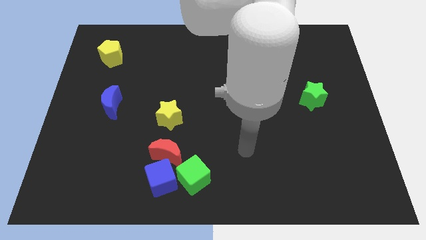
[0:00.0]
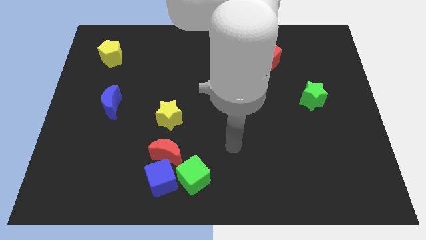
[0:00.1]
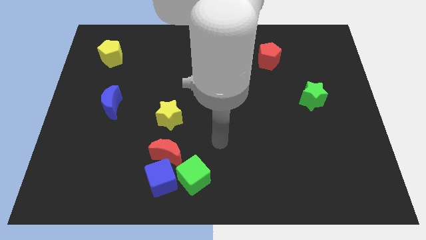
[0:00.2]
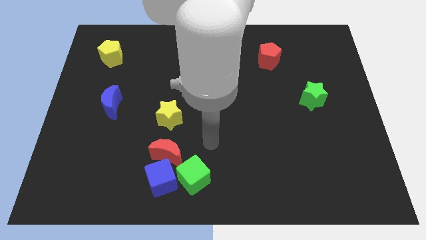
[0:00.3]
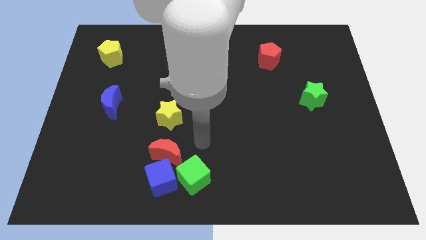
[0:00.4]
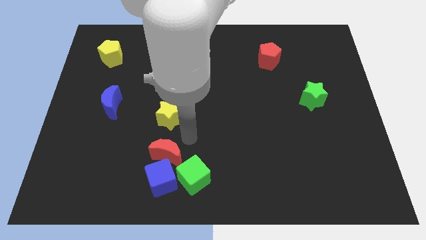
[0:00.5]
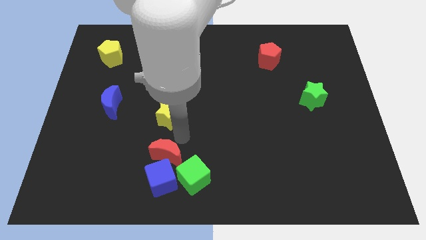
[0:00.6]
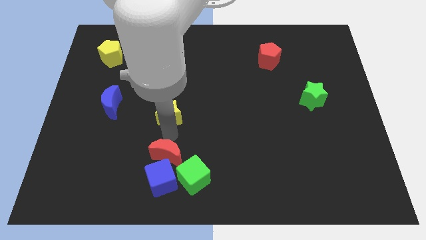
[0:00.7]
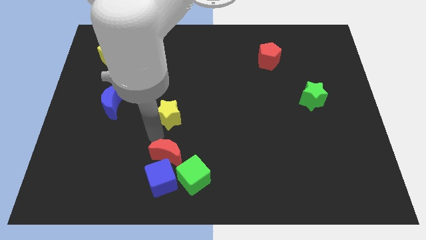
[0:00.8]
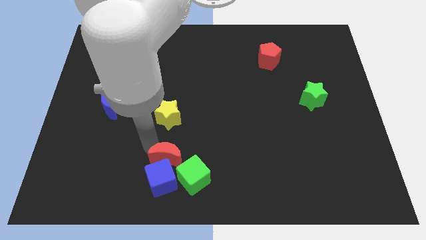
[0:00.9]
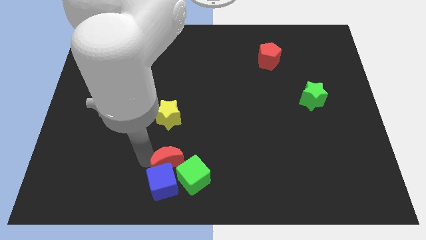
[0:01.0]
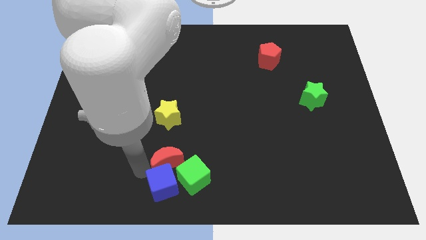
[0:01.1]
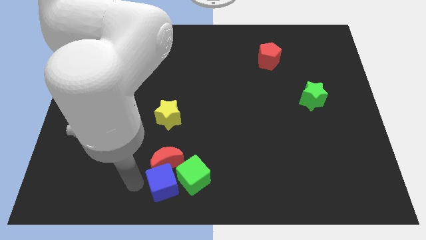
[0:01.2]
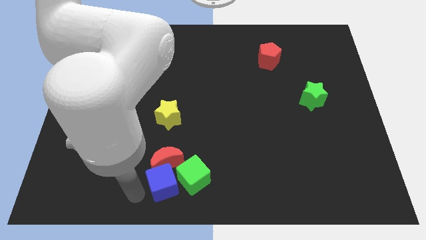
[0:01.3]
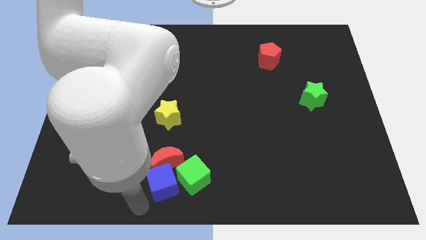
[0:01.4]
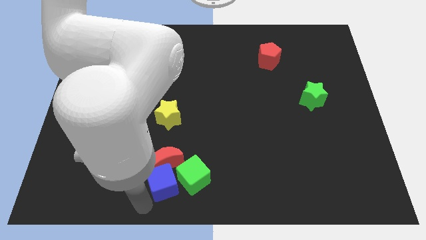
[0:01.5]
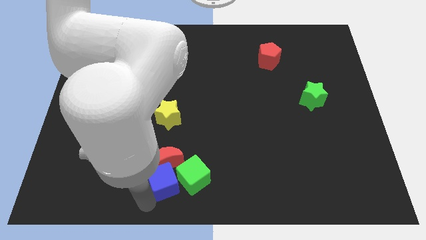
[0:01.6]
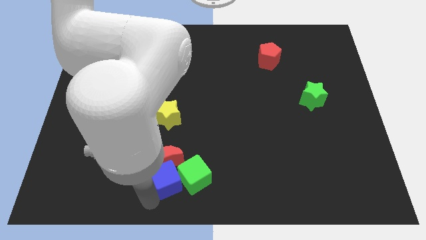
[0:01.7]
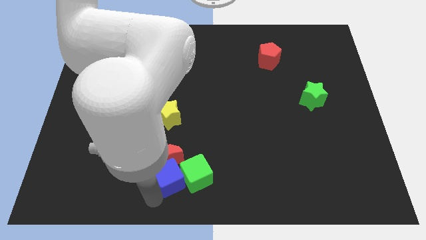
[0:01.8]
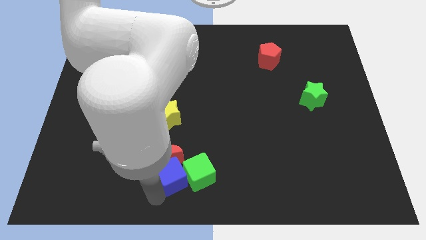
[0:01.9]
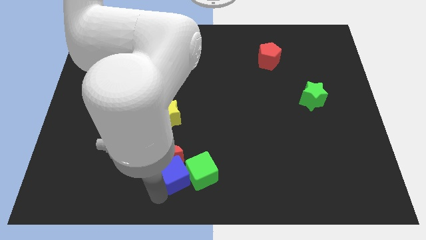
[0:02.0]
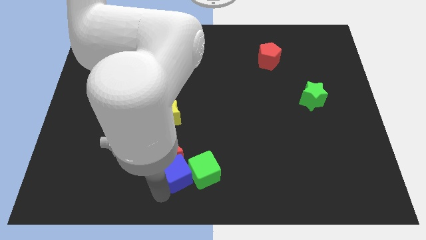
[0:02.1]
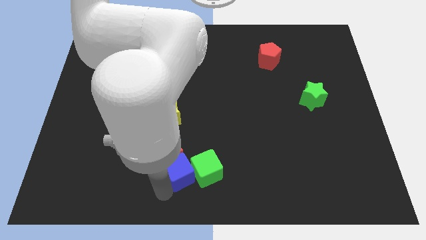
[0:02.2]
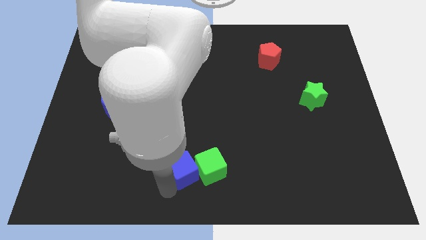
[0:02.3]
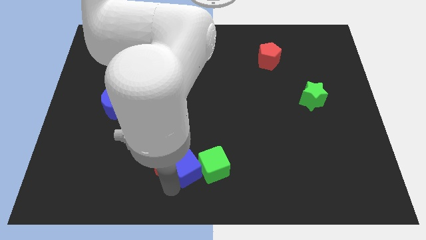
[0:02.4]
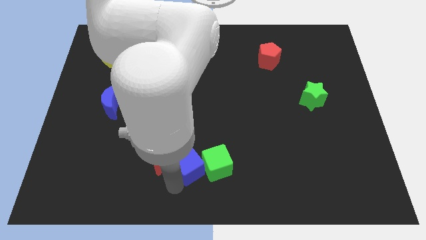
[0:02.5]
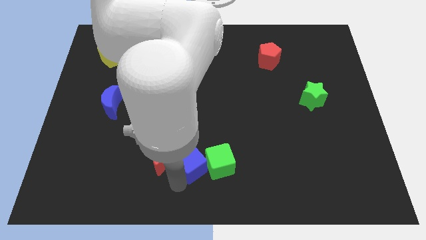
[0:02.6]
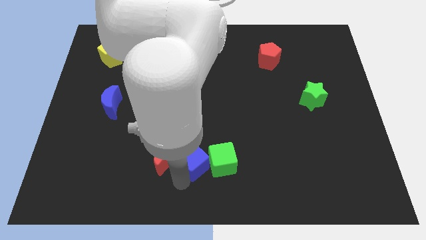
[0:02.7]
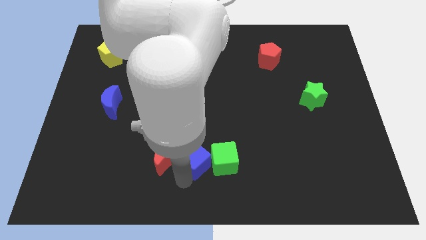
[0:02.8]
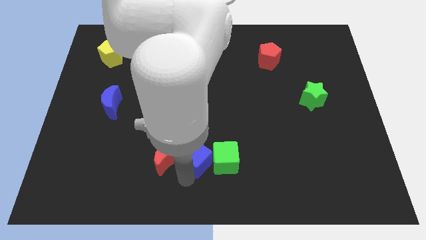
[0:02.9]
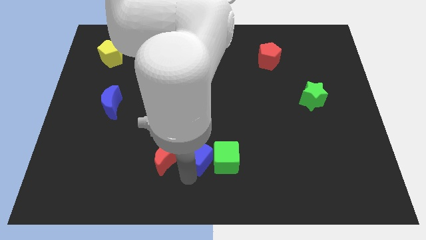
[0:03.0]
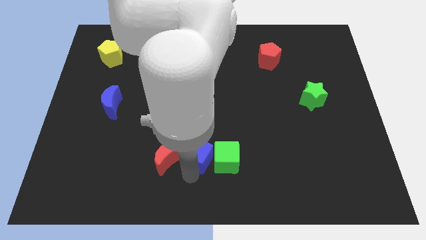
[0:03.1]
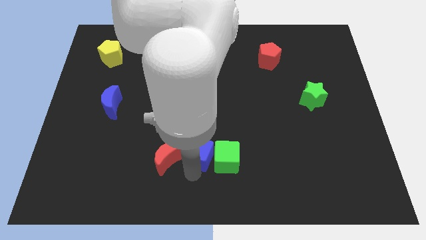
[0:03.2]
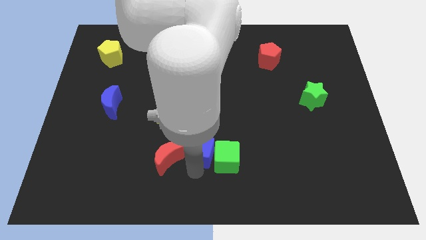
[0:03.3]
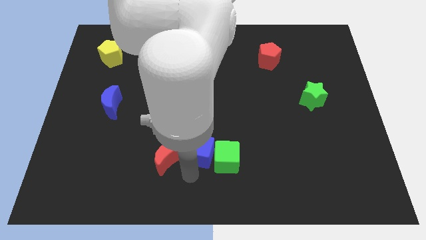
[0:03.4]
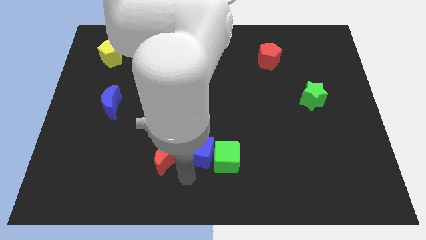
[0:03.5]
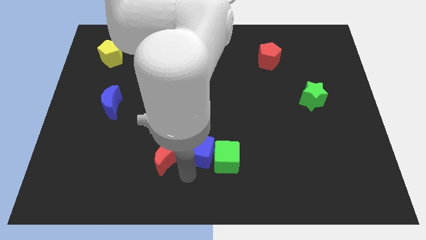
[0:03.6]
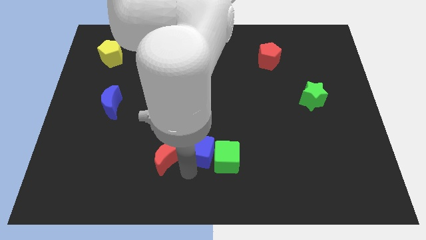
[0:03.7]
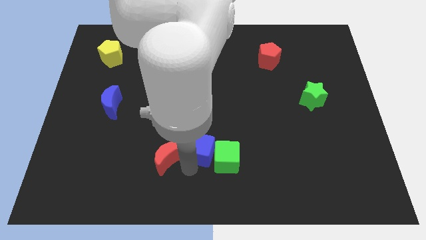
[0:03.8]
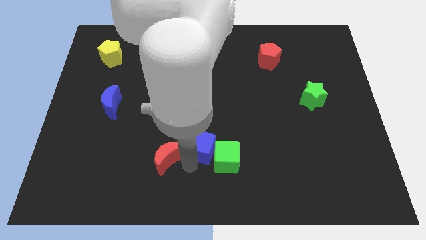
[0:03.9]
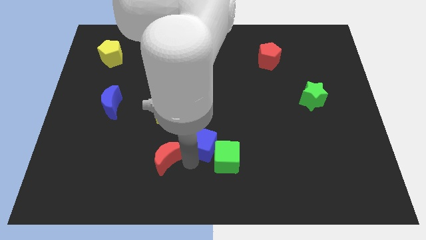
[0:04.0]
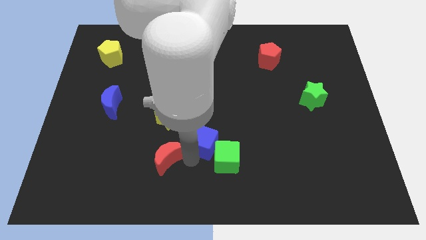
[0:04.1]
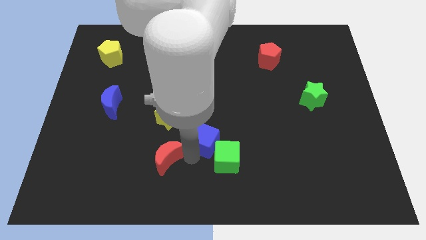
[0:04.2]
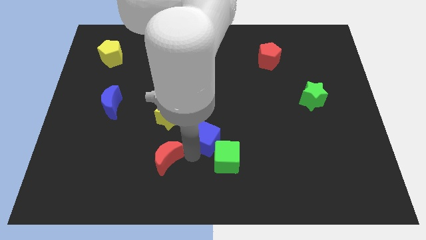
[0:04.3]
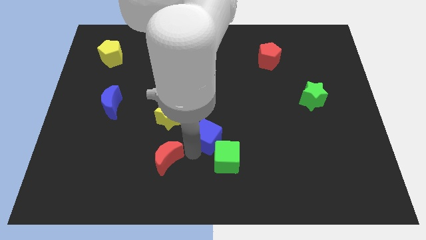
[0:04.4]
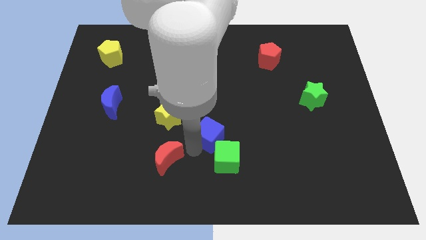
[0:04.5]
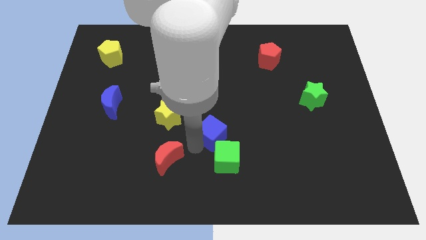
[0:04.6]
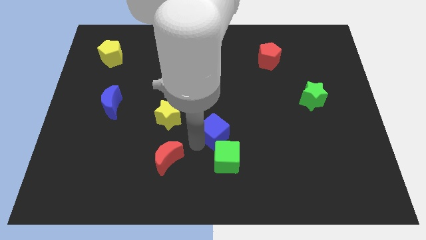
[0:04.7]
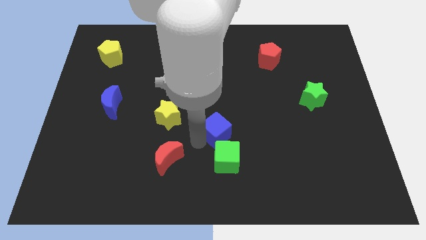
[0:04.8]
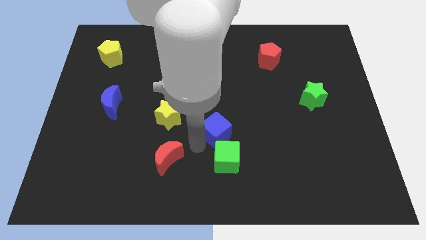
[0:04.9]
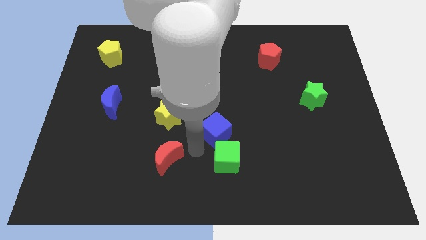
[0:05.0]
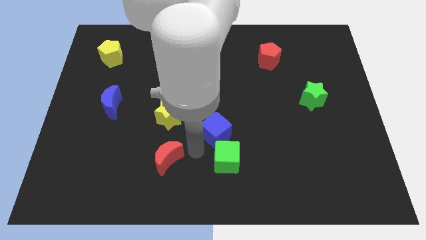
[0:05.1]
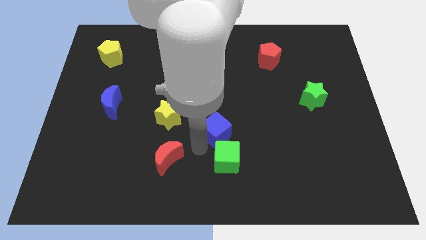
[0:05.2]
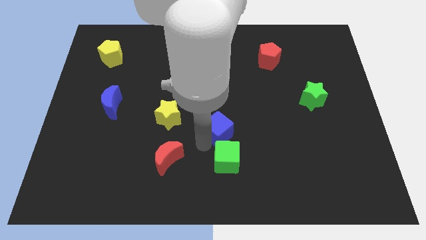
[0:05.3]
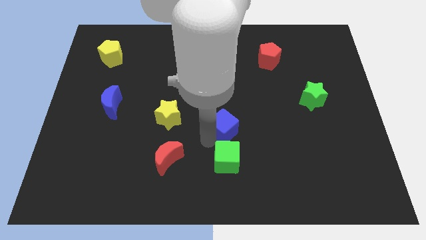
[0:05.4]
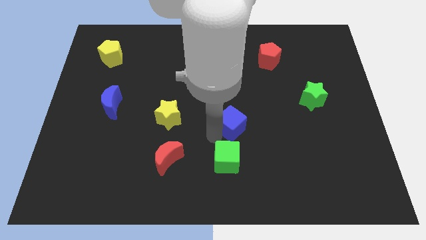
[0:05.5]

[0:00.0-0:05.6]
slide the blue cube upwards and to the right diagonally

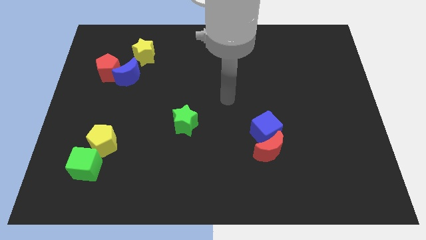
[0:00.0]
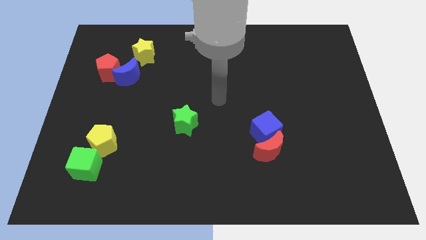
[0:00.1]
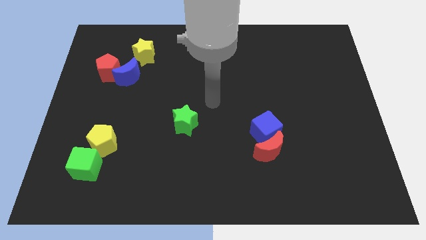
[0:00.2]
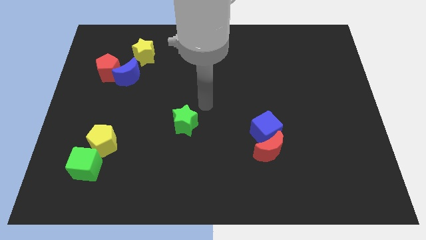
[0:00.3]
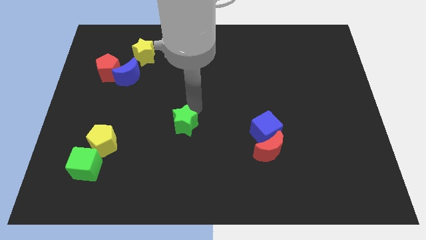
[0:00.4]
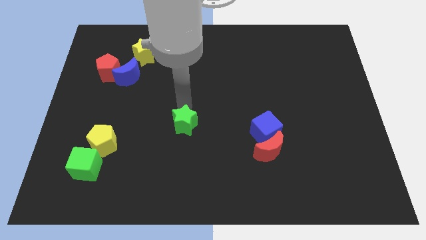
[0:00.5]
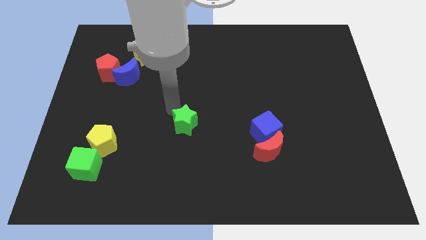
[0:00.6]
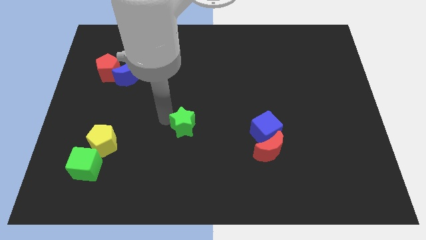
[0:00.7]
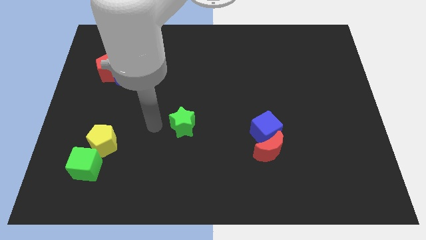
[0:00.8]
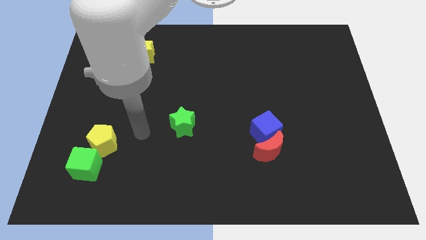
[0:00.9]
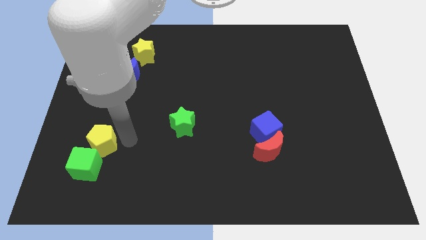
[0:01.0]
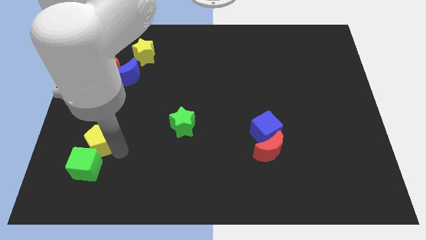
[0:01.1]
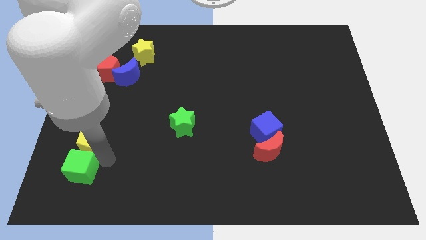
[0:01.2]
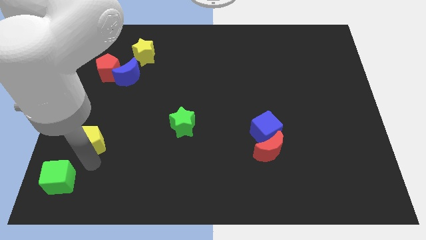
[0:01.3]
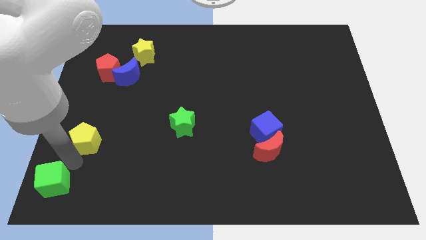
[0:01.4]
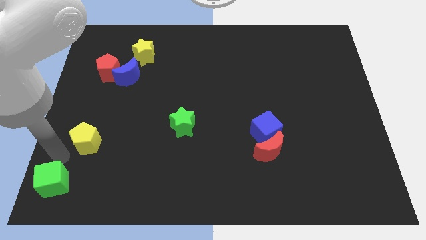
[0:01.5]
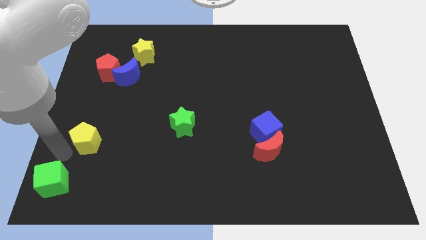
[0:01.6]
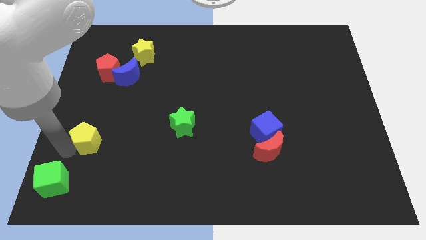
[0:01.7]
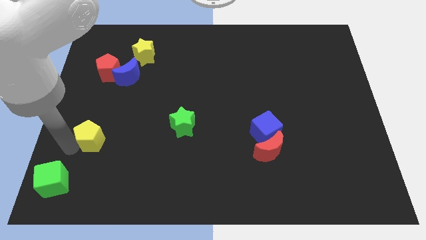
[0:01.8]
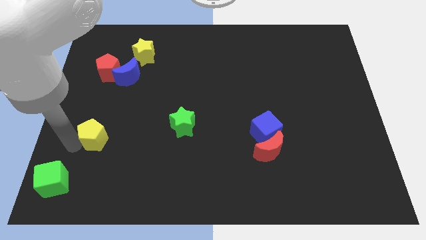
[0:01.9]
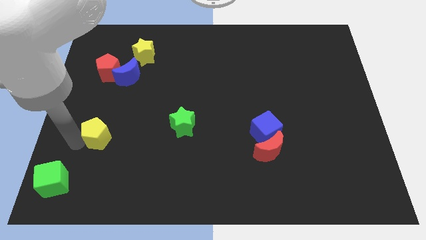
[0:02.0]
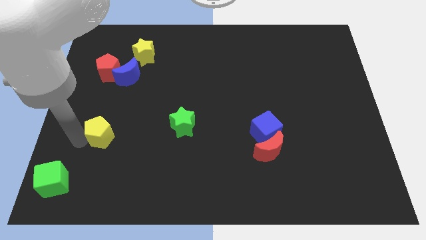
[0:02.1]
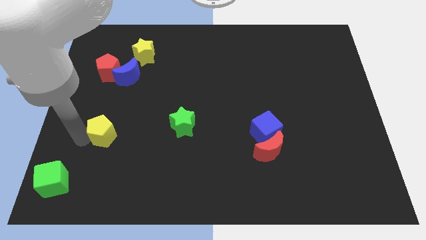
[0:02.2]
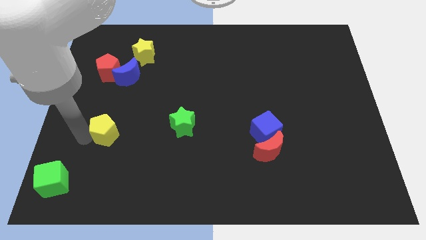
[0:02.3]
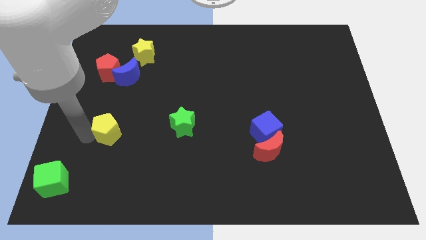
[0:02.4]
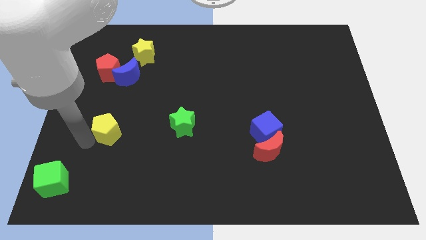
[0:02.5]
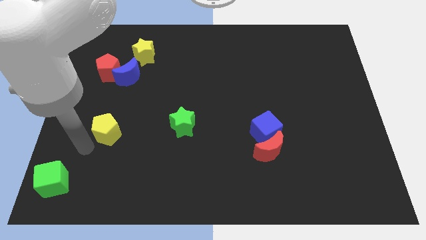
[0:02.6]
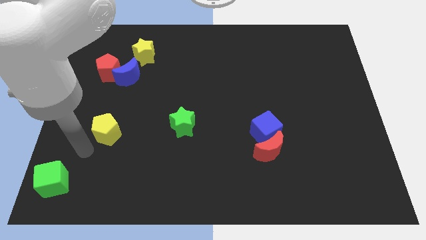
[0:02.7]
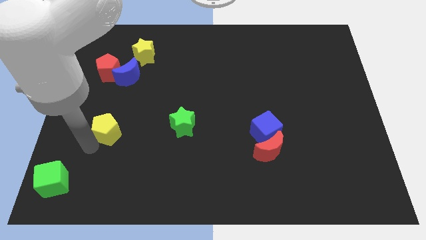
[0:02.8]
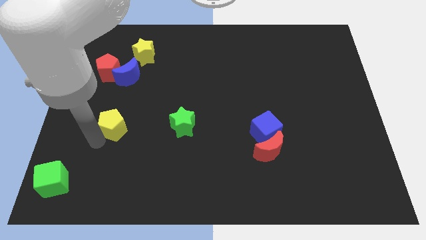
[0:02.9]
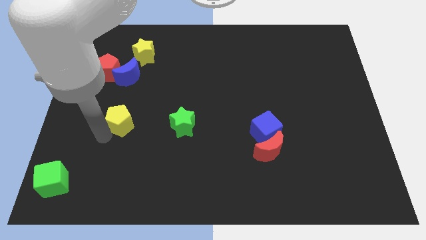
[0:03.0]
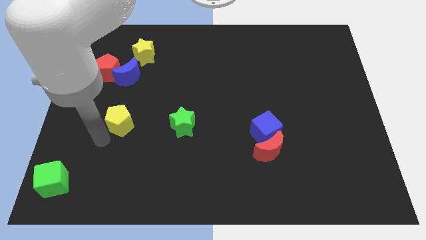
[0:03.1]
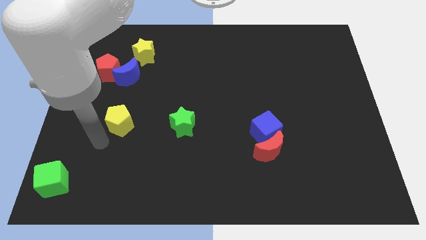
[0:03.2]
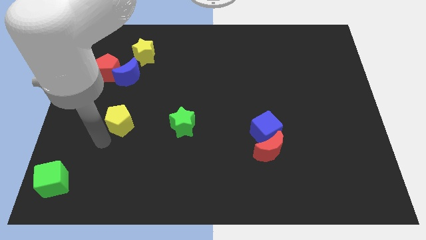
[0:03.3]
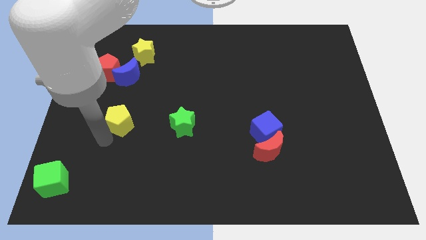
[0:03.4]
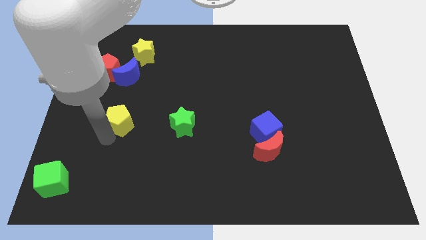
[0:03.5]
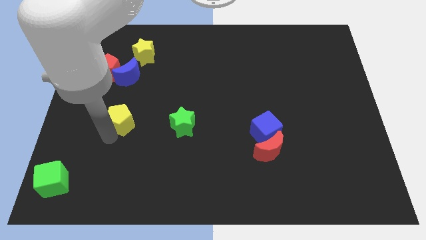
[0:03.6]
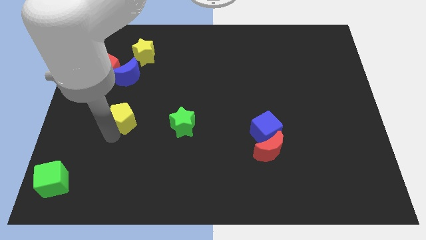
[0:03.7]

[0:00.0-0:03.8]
slightly slide the yellow pentagon up and to the right diagonally
